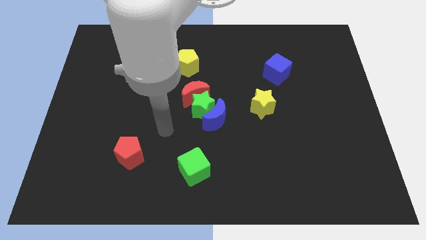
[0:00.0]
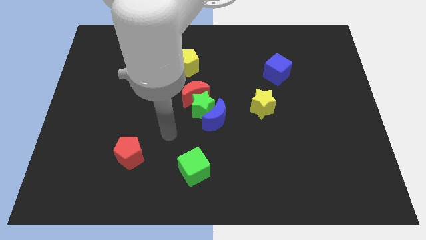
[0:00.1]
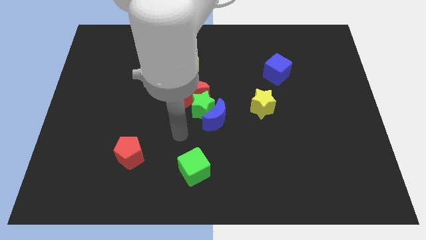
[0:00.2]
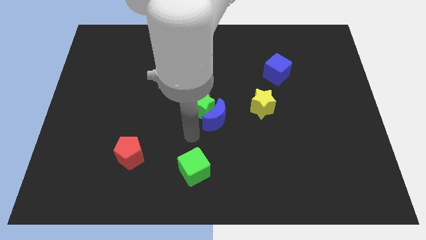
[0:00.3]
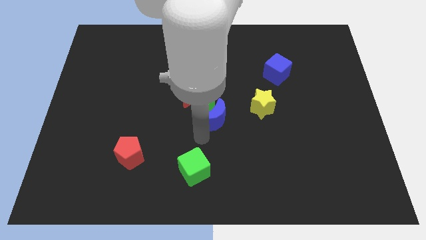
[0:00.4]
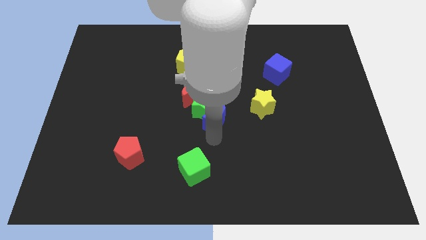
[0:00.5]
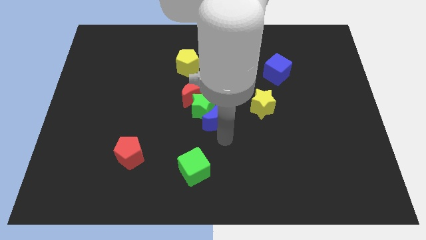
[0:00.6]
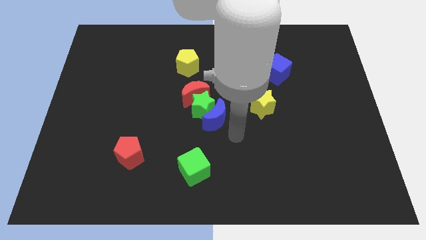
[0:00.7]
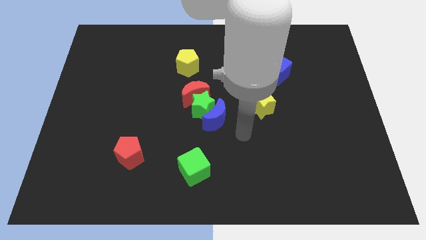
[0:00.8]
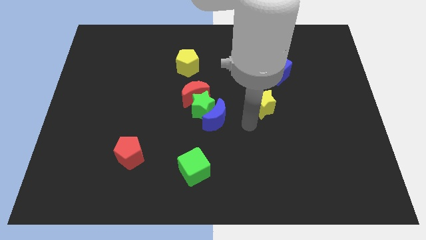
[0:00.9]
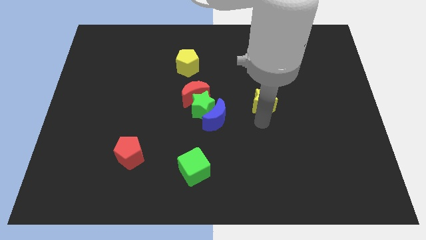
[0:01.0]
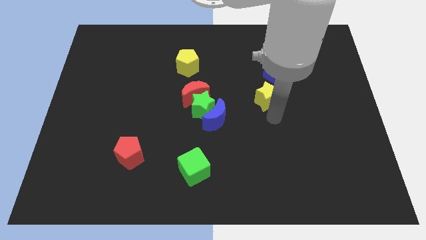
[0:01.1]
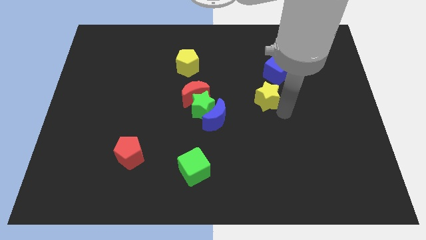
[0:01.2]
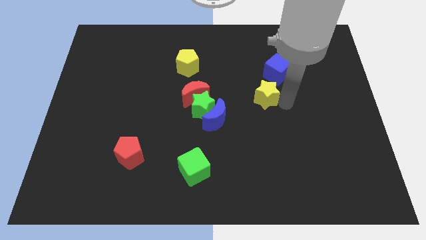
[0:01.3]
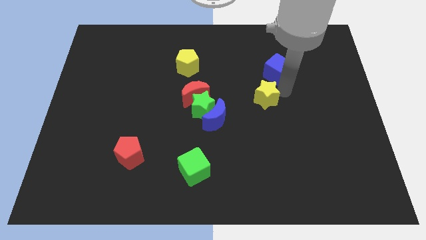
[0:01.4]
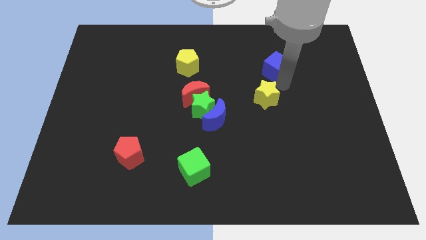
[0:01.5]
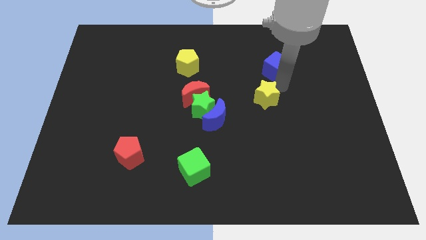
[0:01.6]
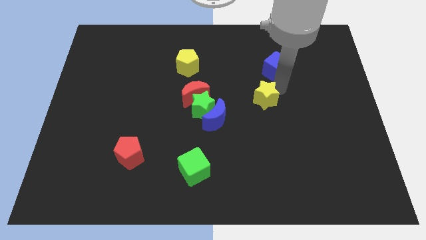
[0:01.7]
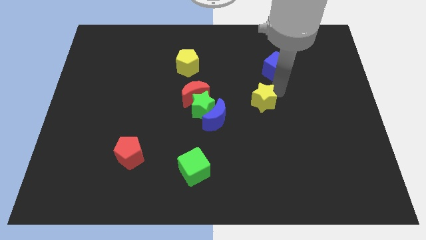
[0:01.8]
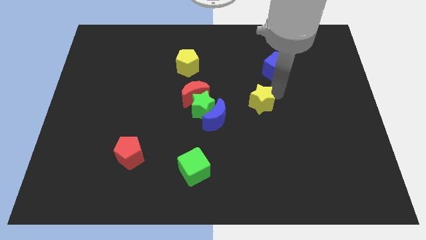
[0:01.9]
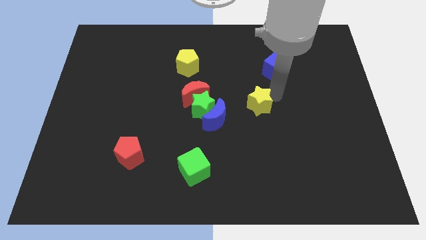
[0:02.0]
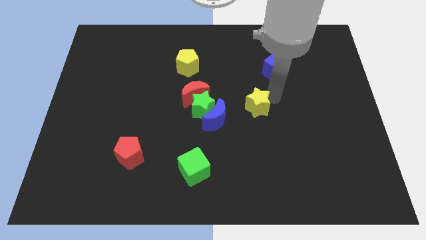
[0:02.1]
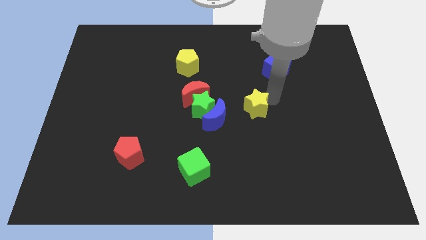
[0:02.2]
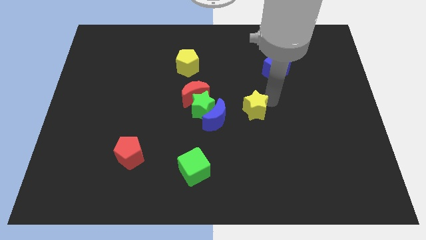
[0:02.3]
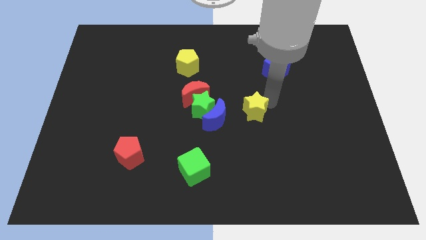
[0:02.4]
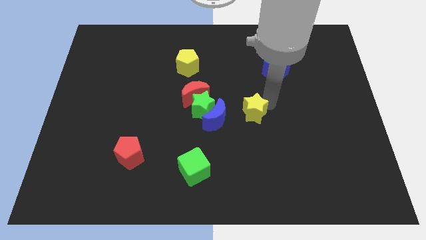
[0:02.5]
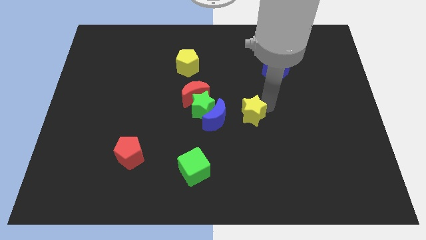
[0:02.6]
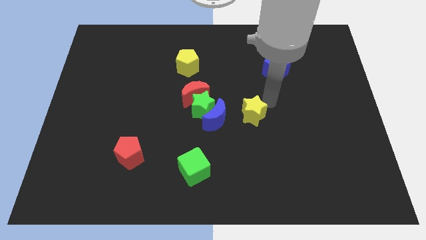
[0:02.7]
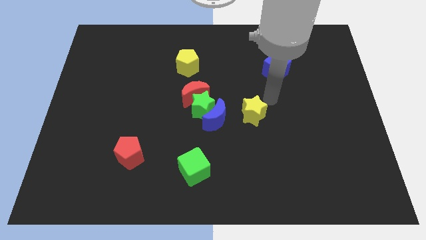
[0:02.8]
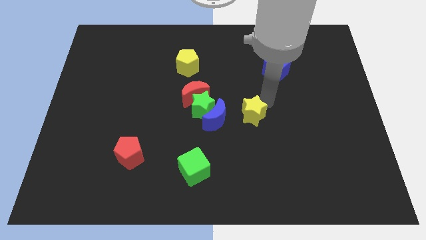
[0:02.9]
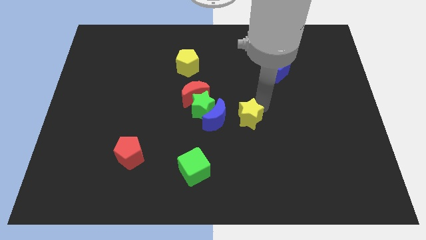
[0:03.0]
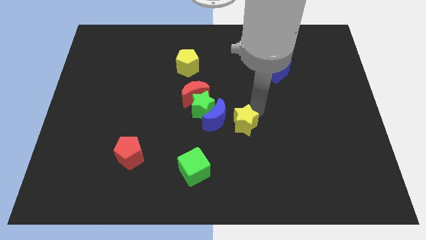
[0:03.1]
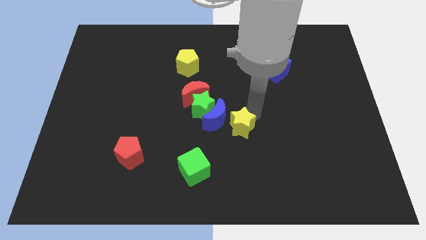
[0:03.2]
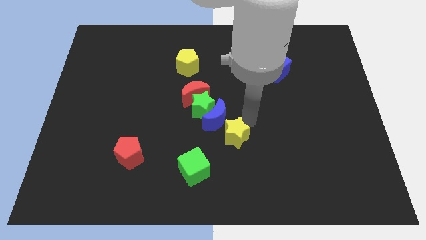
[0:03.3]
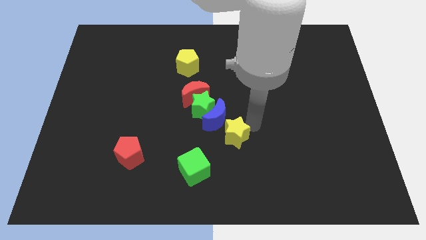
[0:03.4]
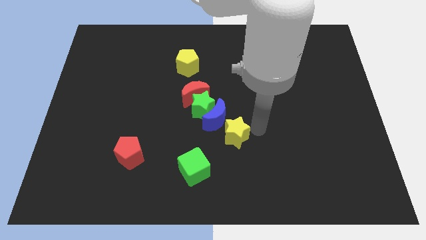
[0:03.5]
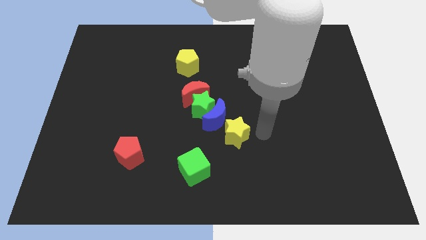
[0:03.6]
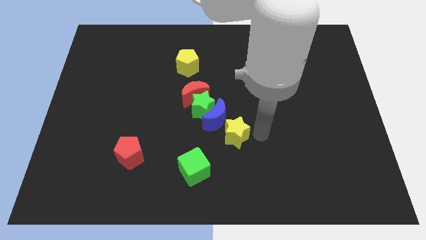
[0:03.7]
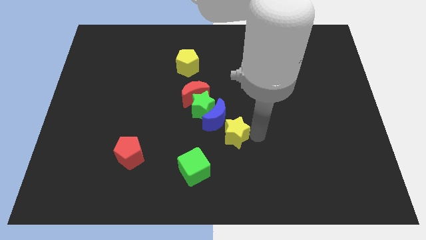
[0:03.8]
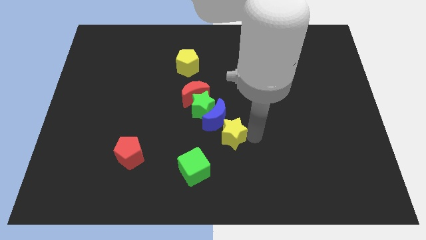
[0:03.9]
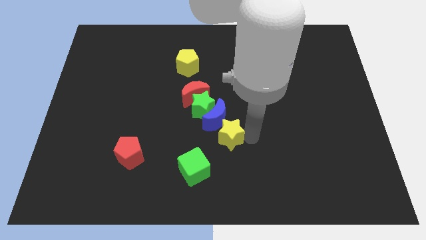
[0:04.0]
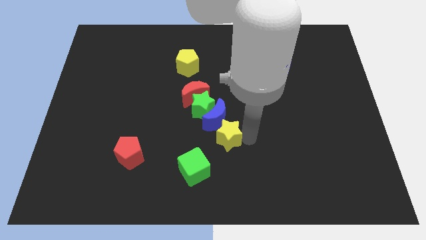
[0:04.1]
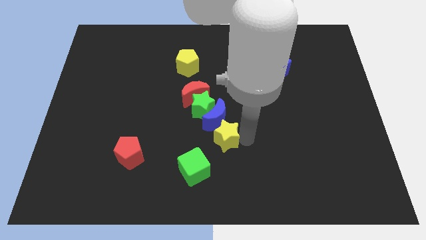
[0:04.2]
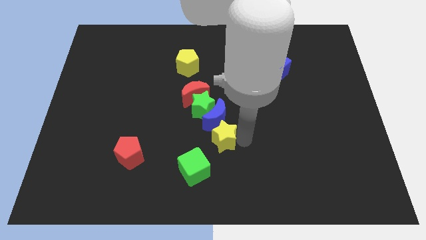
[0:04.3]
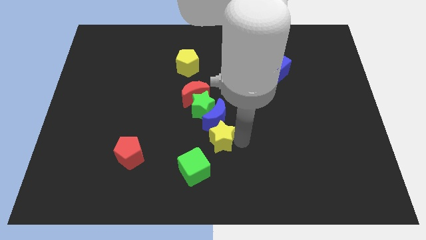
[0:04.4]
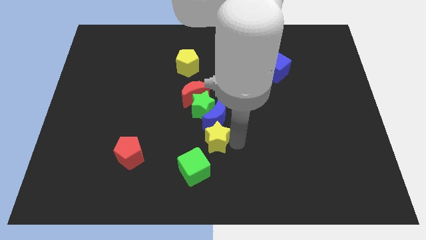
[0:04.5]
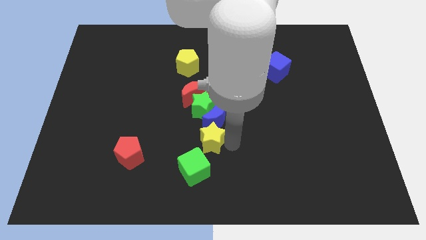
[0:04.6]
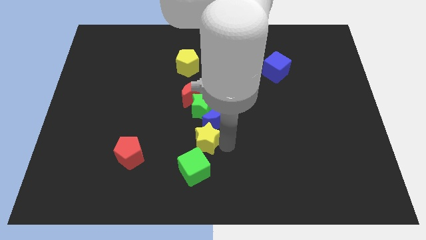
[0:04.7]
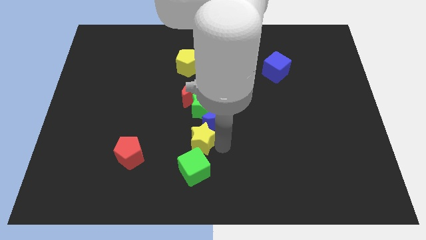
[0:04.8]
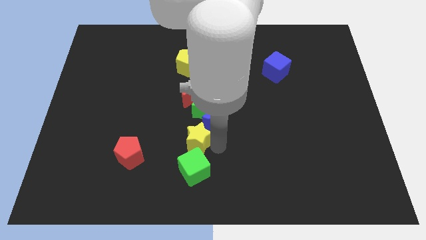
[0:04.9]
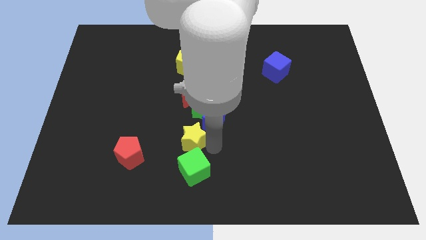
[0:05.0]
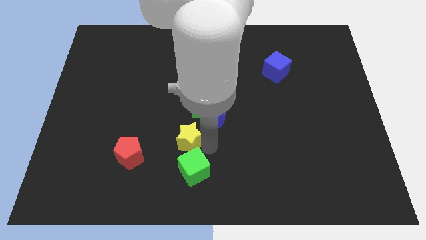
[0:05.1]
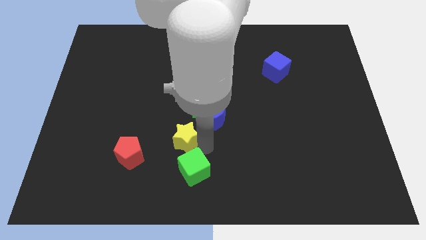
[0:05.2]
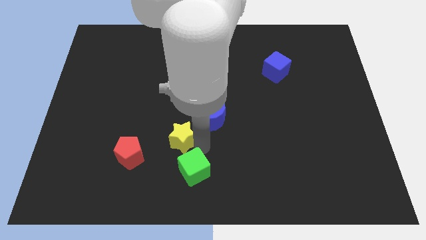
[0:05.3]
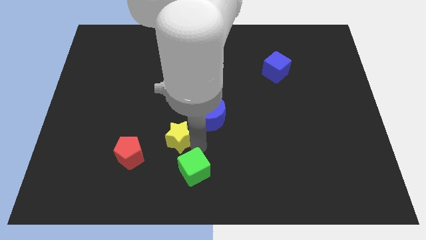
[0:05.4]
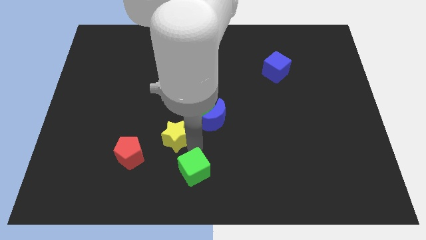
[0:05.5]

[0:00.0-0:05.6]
put the yellow star left of the blue moon

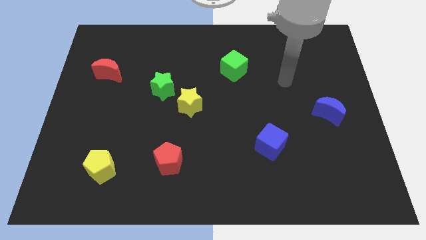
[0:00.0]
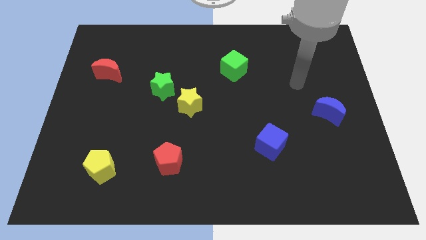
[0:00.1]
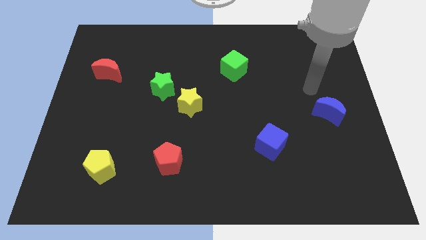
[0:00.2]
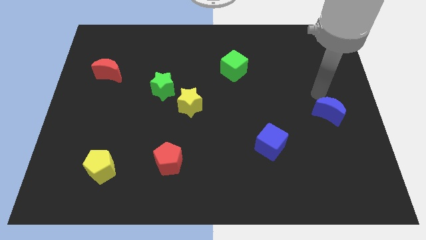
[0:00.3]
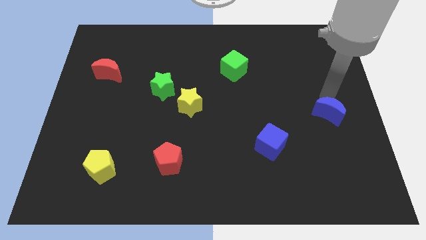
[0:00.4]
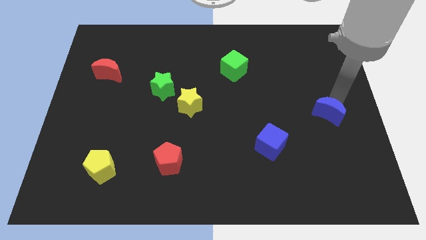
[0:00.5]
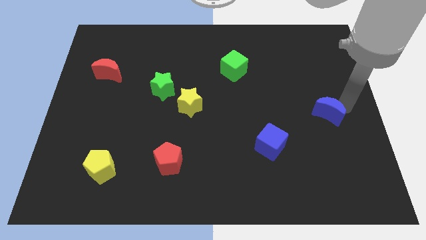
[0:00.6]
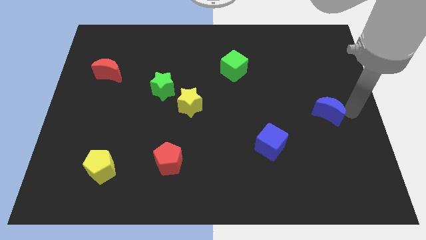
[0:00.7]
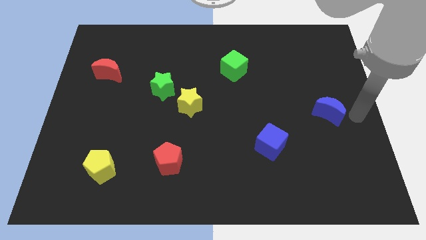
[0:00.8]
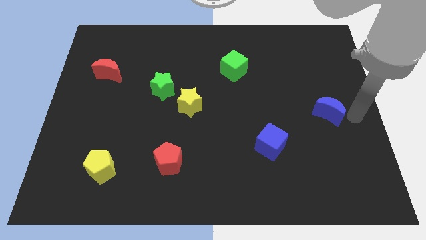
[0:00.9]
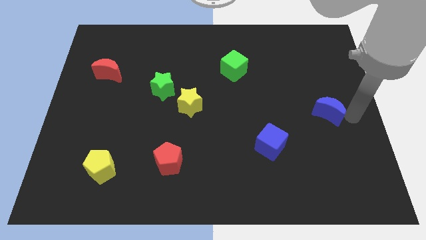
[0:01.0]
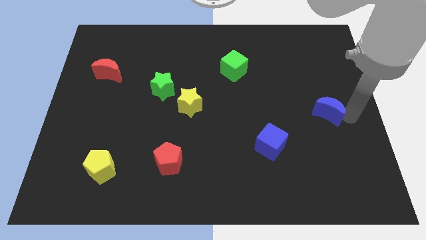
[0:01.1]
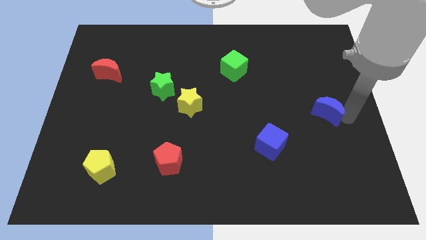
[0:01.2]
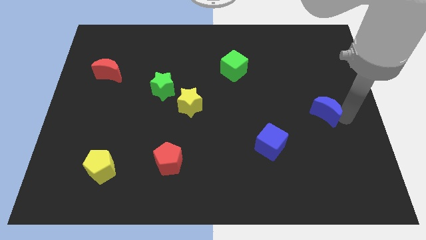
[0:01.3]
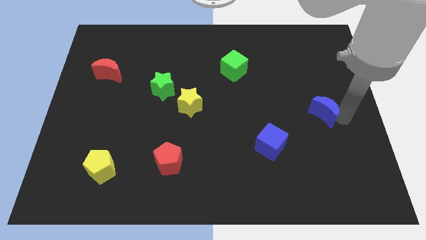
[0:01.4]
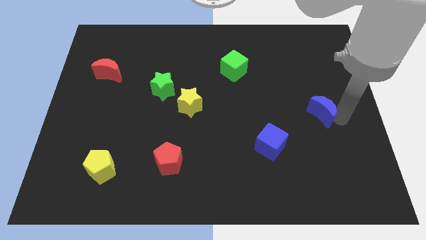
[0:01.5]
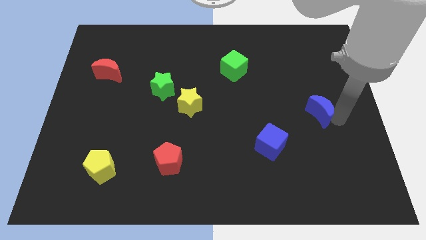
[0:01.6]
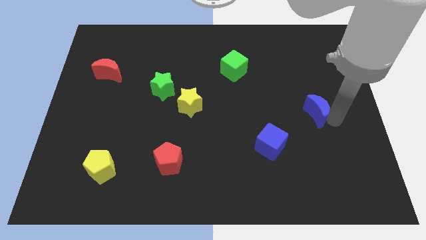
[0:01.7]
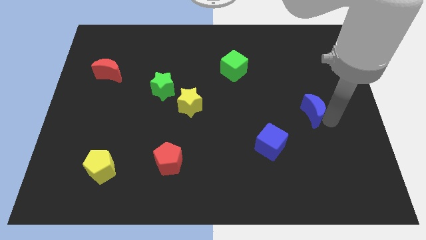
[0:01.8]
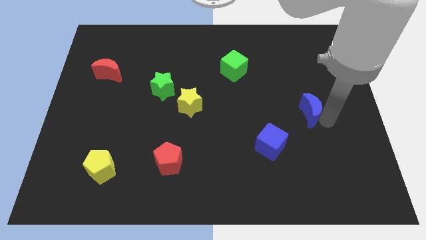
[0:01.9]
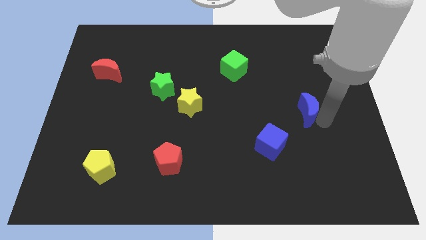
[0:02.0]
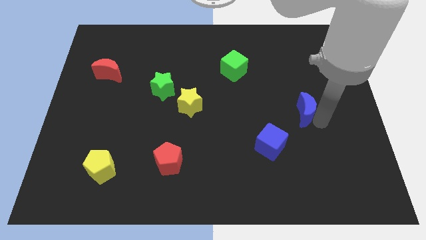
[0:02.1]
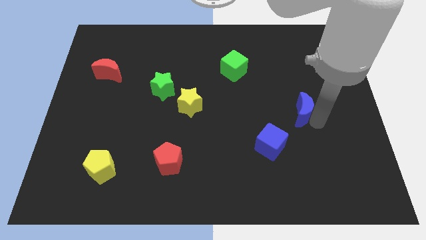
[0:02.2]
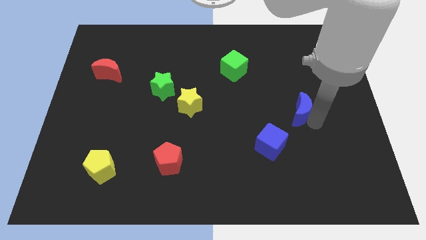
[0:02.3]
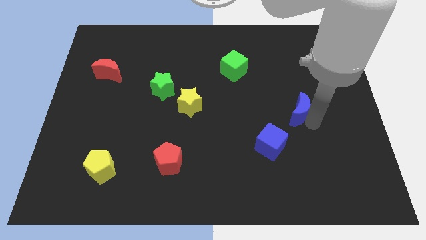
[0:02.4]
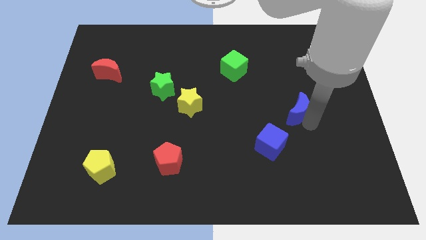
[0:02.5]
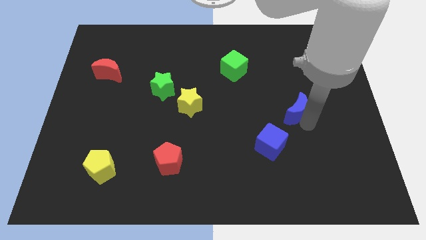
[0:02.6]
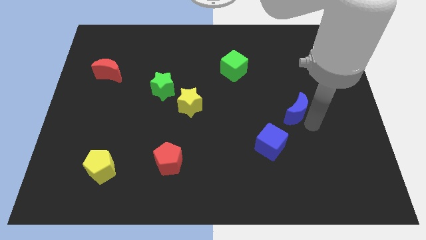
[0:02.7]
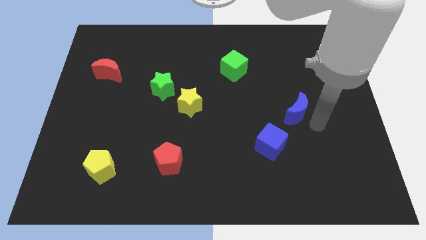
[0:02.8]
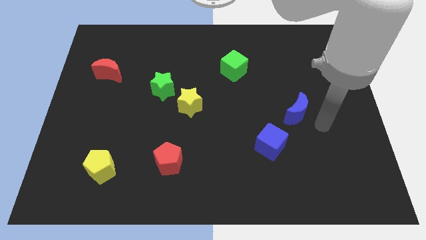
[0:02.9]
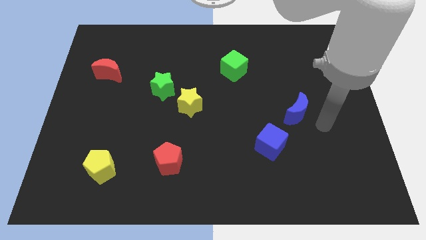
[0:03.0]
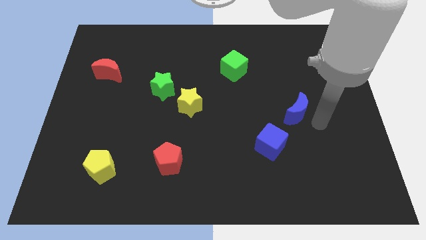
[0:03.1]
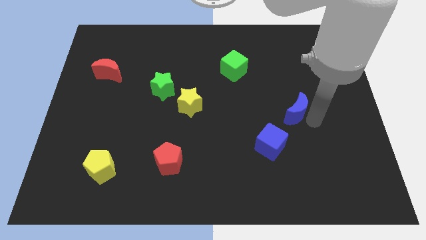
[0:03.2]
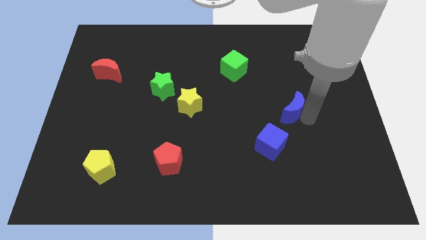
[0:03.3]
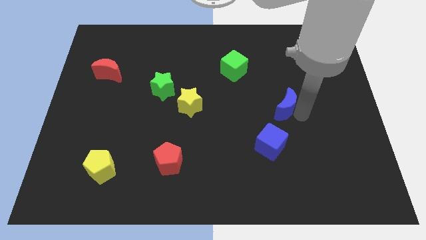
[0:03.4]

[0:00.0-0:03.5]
push the blue moon to the top of the blue cube
